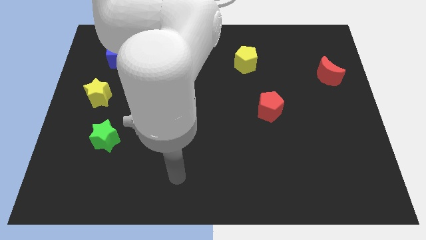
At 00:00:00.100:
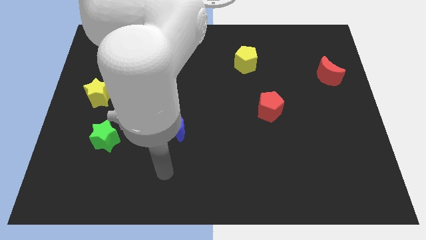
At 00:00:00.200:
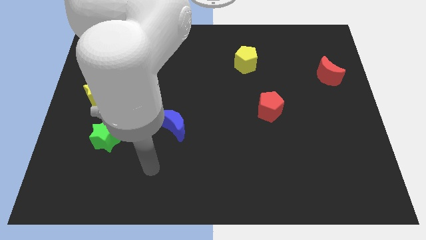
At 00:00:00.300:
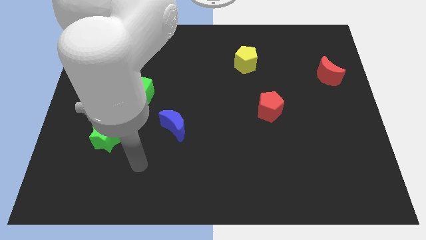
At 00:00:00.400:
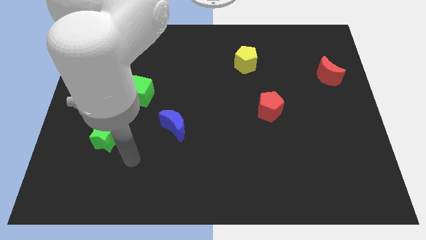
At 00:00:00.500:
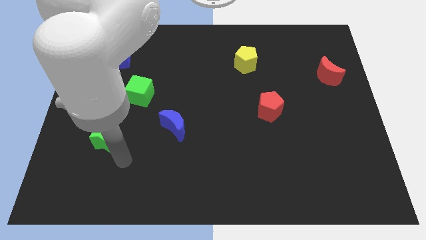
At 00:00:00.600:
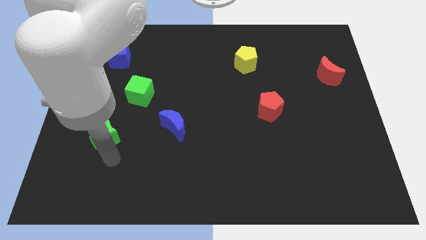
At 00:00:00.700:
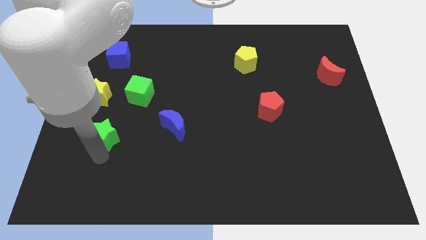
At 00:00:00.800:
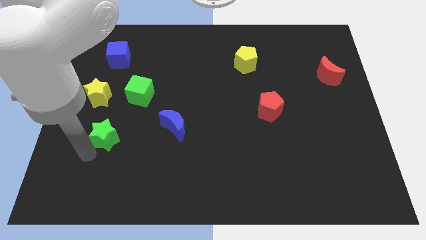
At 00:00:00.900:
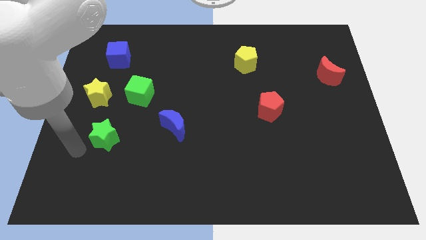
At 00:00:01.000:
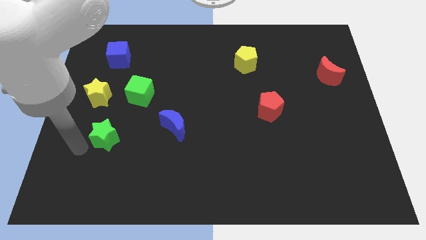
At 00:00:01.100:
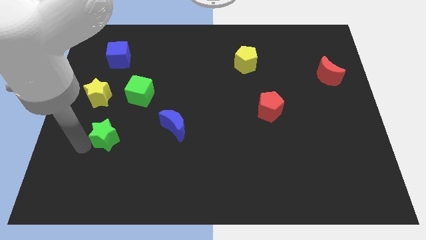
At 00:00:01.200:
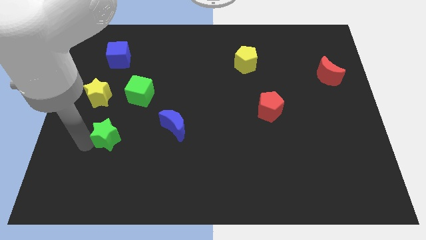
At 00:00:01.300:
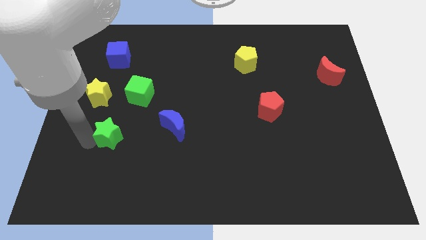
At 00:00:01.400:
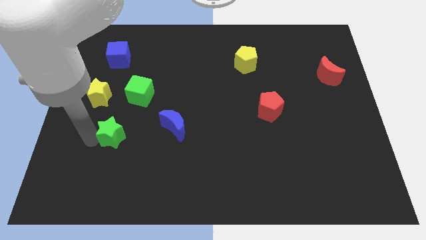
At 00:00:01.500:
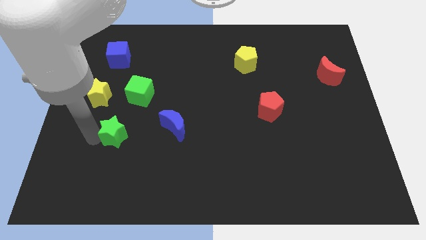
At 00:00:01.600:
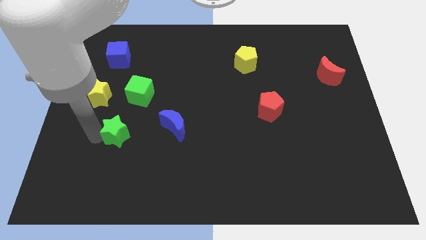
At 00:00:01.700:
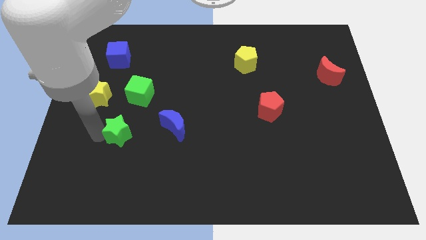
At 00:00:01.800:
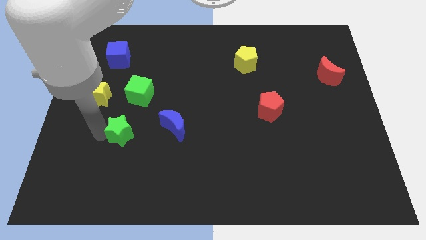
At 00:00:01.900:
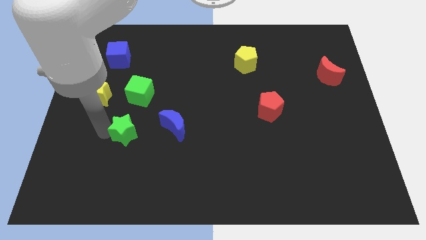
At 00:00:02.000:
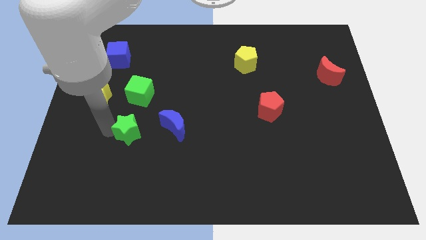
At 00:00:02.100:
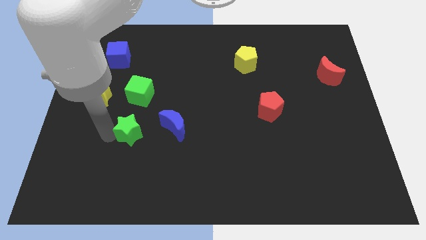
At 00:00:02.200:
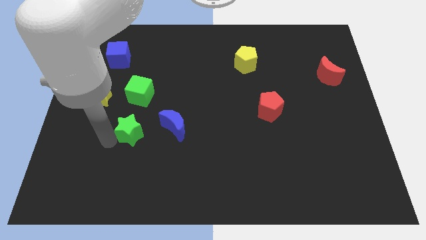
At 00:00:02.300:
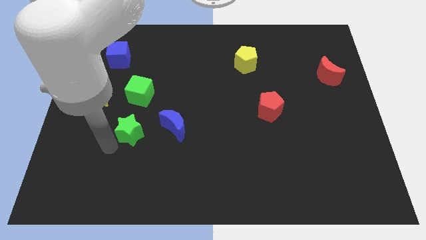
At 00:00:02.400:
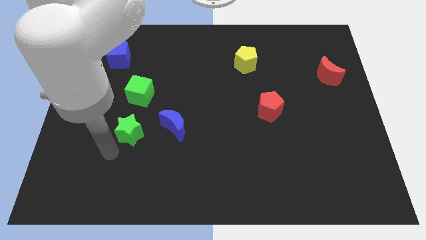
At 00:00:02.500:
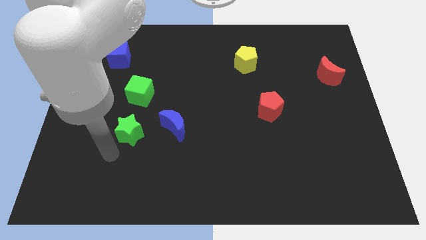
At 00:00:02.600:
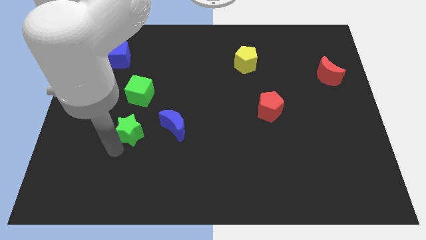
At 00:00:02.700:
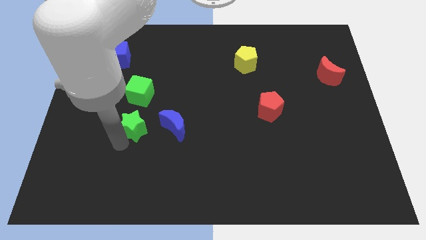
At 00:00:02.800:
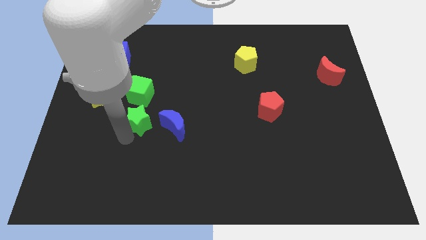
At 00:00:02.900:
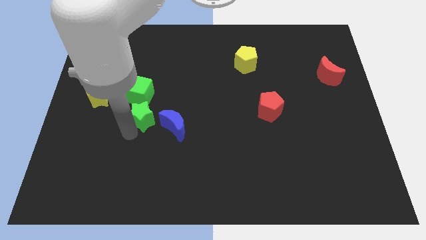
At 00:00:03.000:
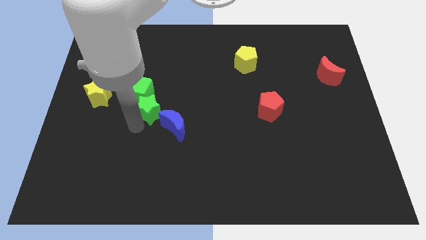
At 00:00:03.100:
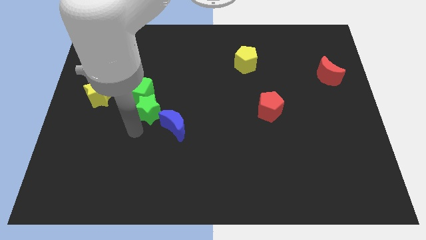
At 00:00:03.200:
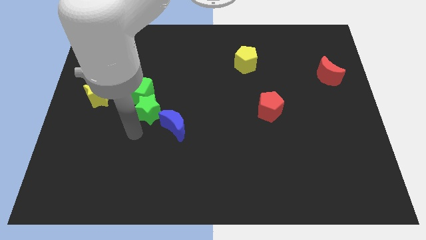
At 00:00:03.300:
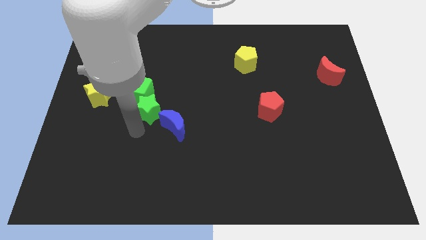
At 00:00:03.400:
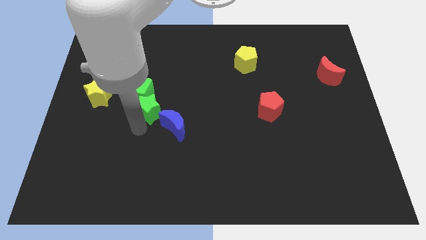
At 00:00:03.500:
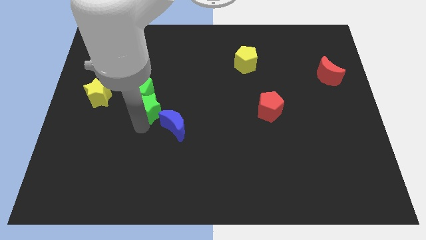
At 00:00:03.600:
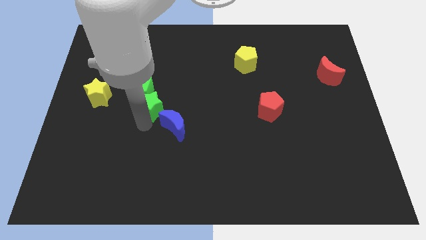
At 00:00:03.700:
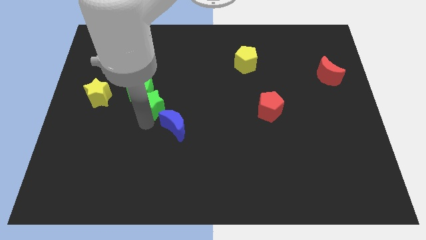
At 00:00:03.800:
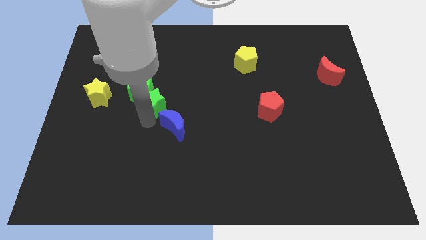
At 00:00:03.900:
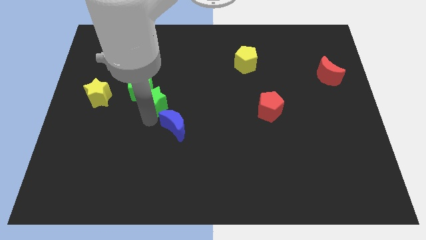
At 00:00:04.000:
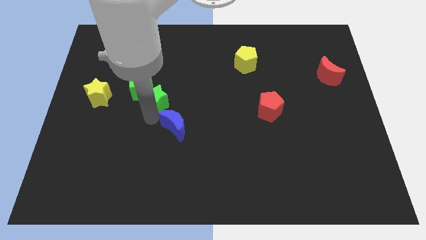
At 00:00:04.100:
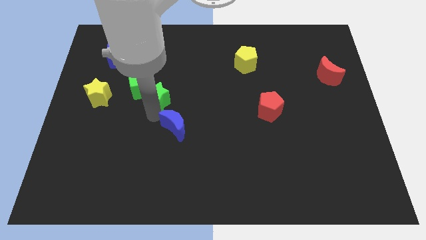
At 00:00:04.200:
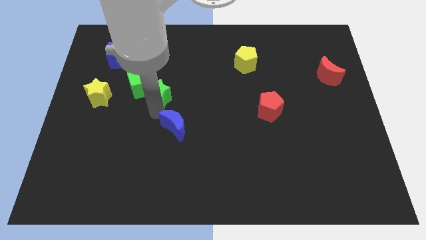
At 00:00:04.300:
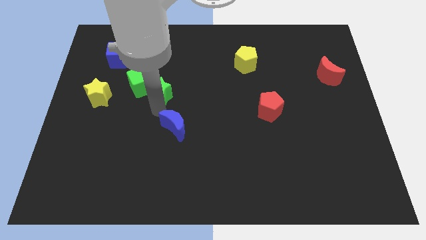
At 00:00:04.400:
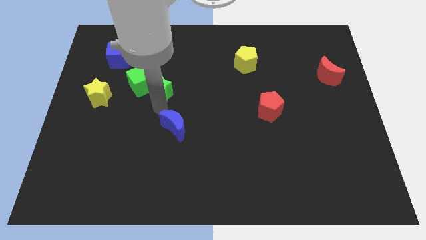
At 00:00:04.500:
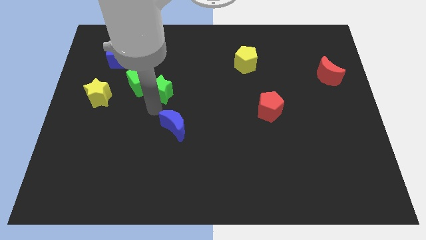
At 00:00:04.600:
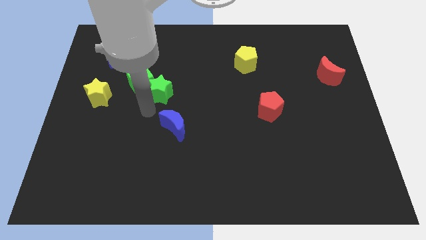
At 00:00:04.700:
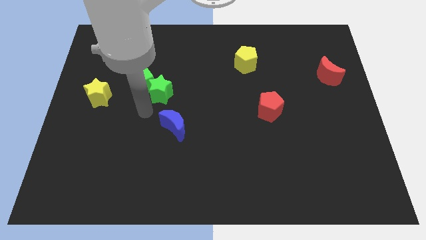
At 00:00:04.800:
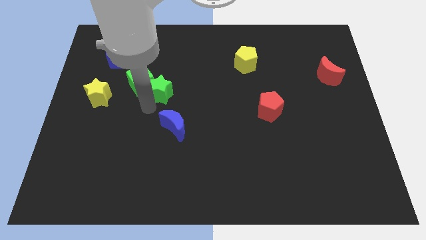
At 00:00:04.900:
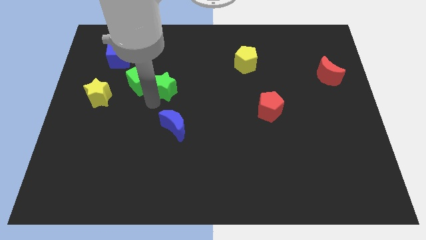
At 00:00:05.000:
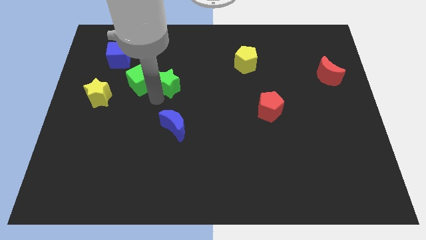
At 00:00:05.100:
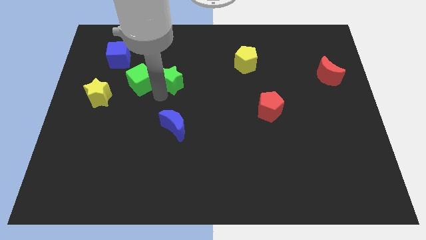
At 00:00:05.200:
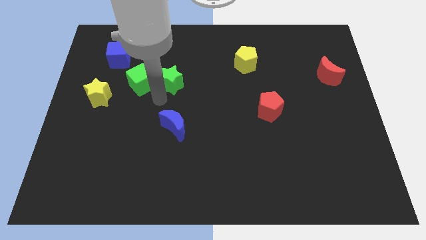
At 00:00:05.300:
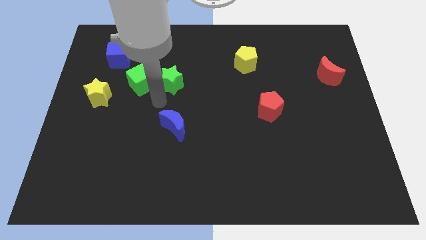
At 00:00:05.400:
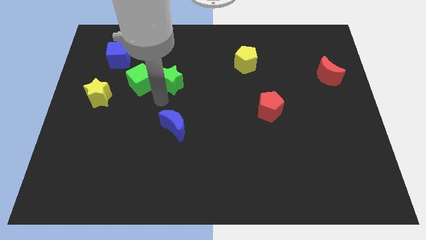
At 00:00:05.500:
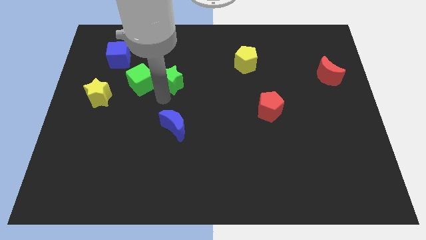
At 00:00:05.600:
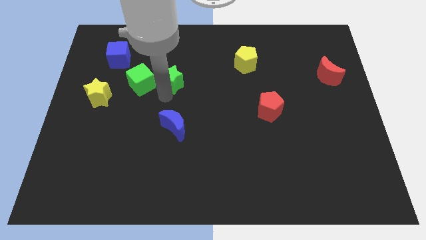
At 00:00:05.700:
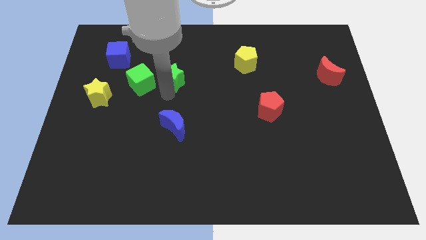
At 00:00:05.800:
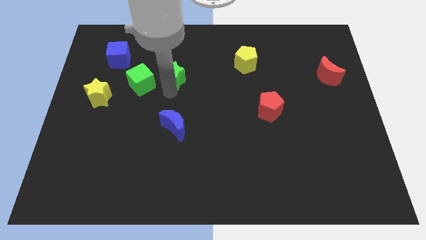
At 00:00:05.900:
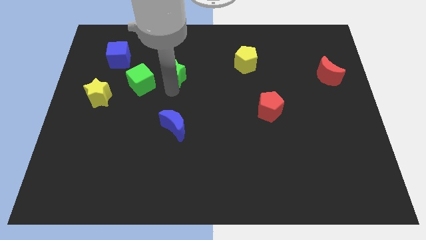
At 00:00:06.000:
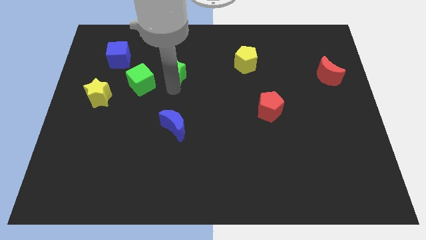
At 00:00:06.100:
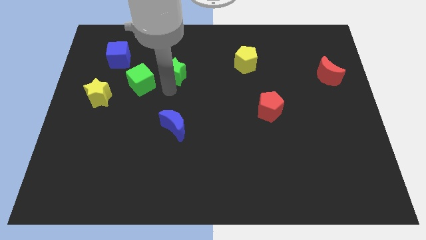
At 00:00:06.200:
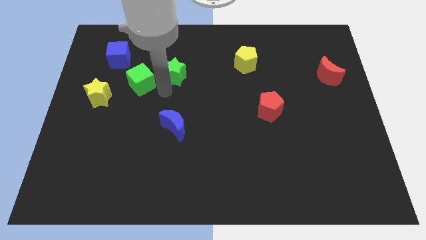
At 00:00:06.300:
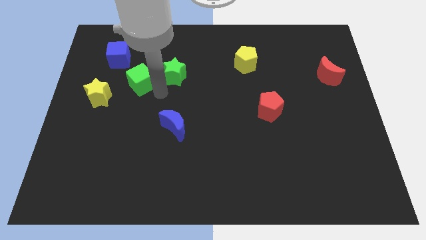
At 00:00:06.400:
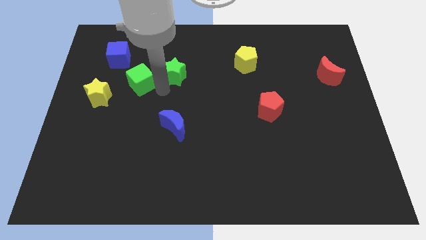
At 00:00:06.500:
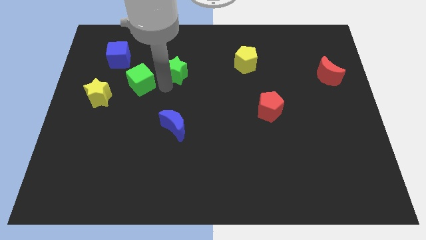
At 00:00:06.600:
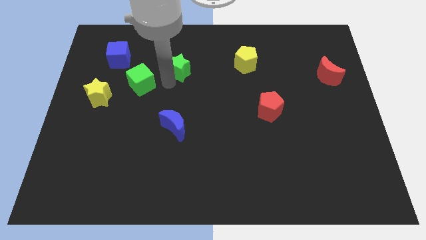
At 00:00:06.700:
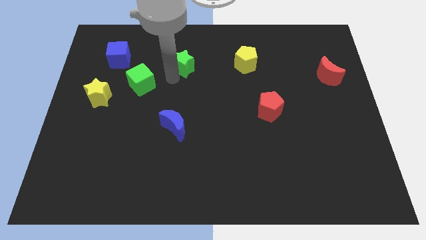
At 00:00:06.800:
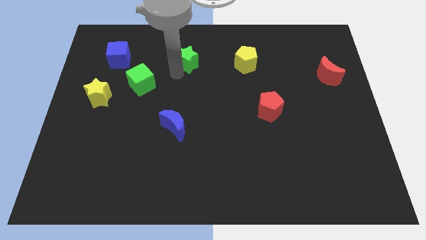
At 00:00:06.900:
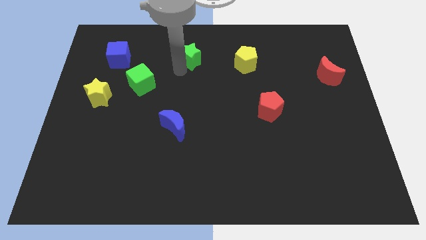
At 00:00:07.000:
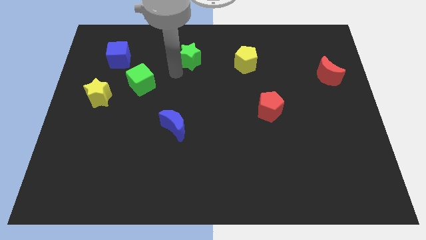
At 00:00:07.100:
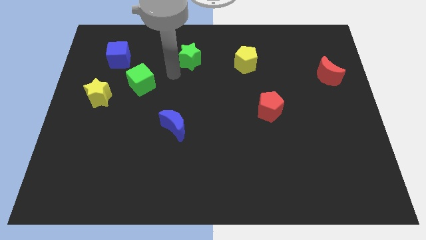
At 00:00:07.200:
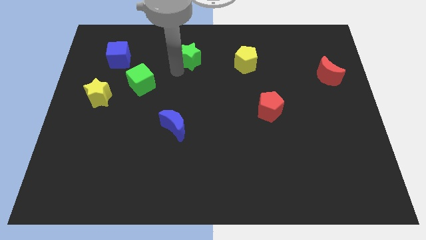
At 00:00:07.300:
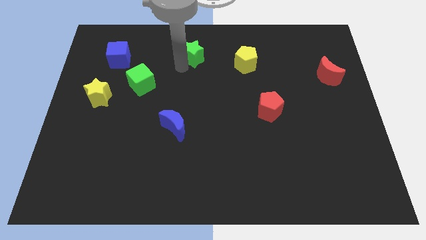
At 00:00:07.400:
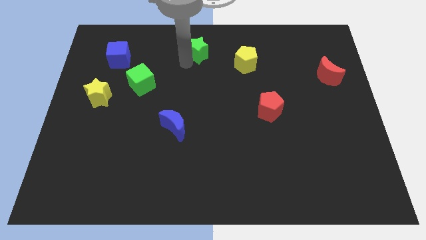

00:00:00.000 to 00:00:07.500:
put the green star to the towards your base
